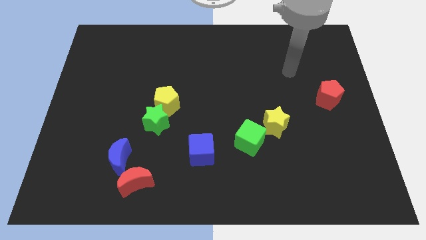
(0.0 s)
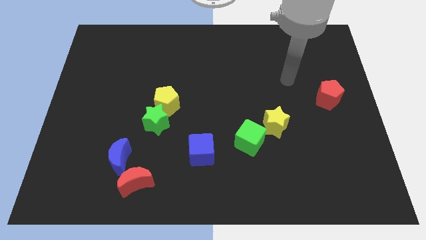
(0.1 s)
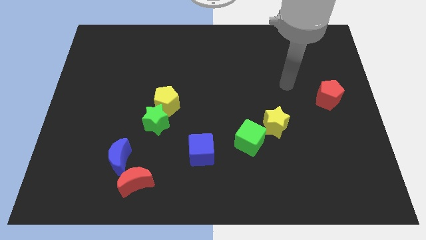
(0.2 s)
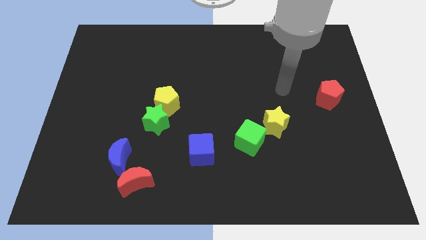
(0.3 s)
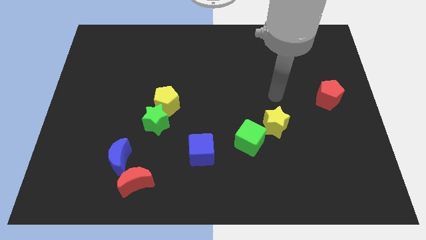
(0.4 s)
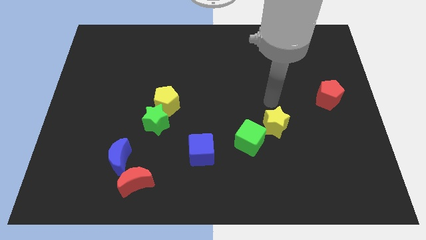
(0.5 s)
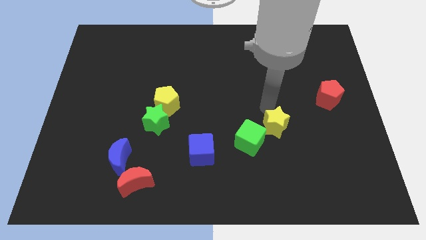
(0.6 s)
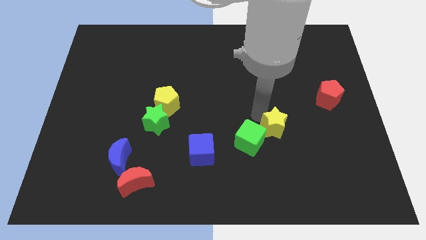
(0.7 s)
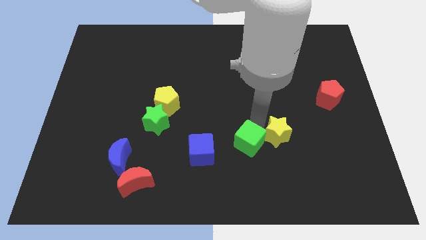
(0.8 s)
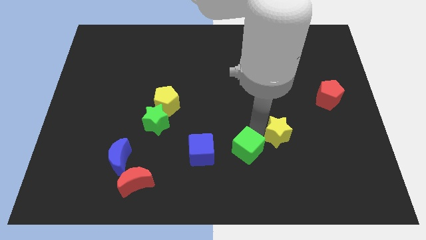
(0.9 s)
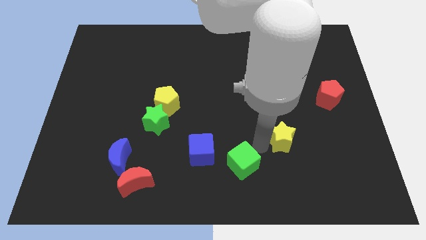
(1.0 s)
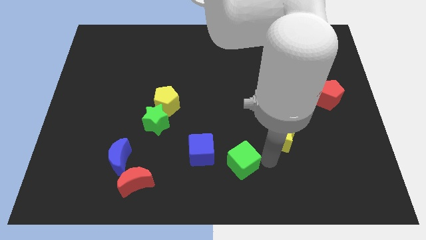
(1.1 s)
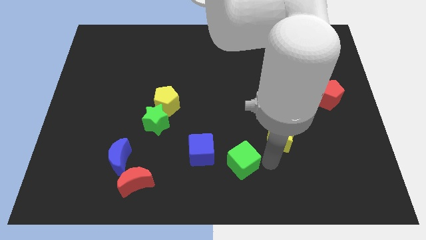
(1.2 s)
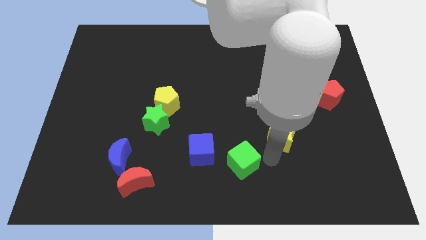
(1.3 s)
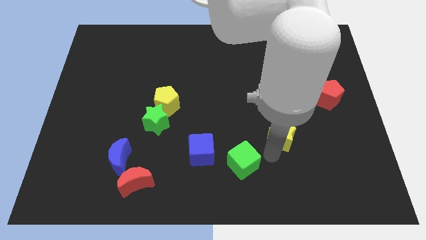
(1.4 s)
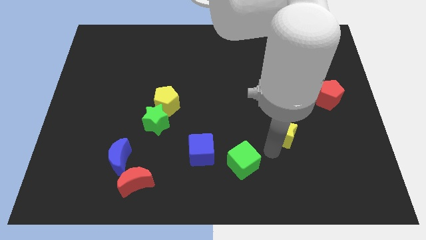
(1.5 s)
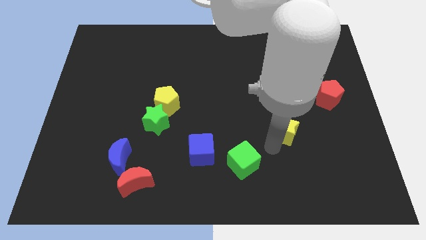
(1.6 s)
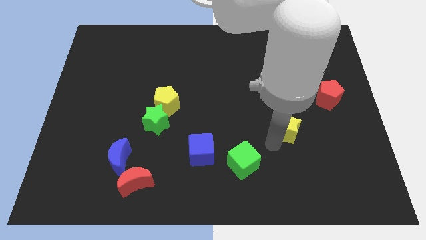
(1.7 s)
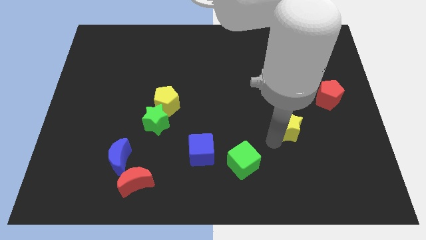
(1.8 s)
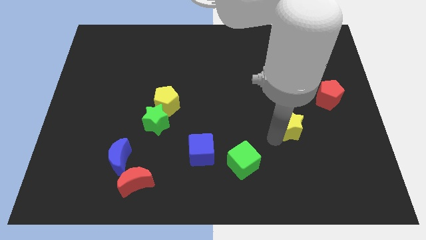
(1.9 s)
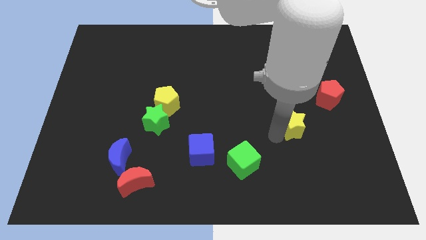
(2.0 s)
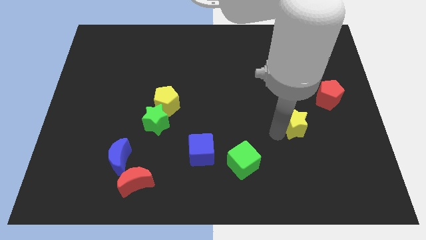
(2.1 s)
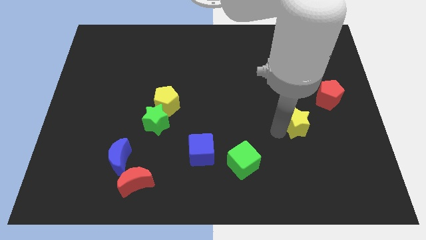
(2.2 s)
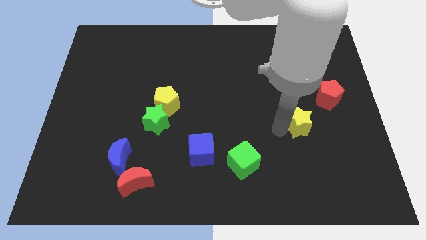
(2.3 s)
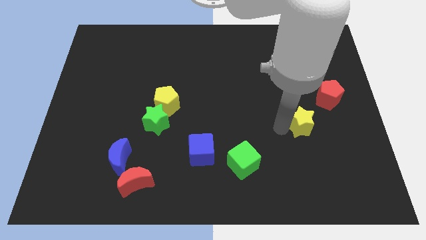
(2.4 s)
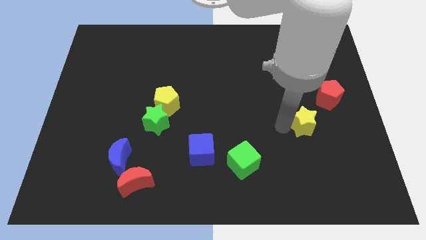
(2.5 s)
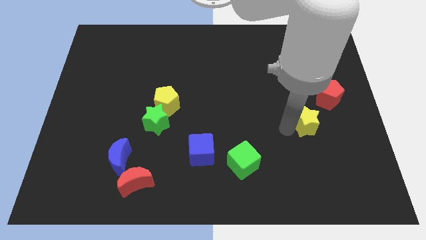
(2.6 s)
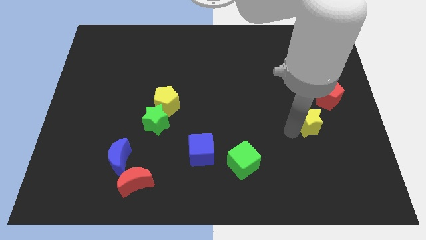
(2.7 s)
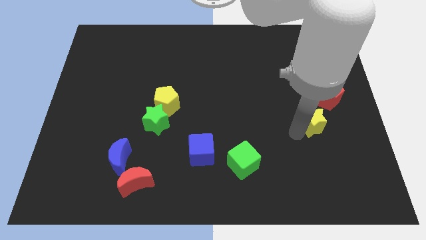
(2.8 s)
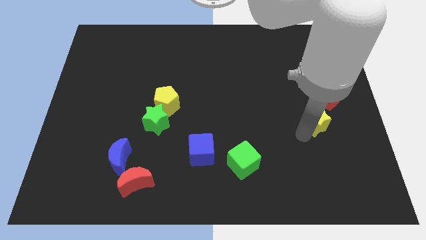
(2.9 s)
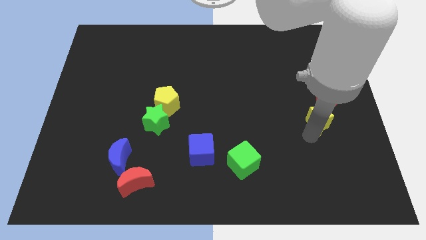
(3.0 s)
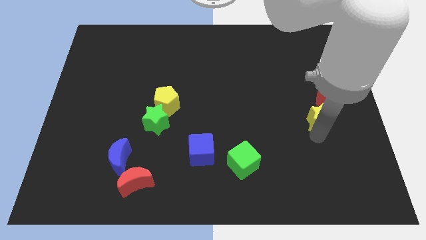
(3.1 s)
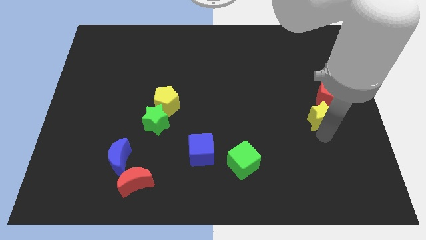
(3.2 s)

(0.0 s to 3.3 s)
slide the yellow star somewhat up and then right

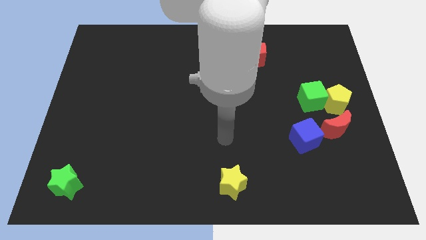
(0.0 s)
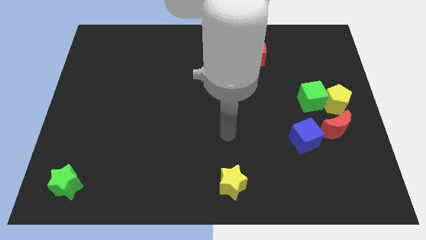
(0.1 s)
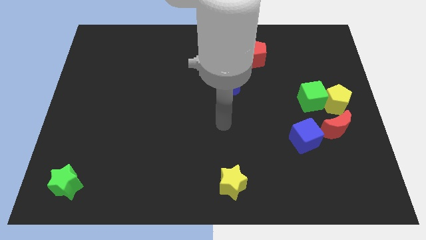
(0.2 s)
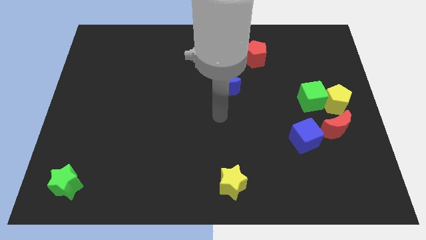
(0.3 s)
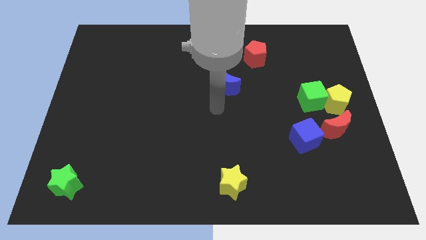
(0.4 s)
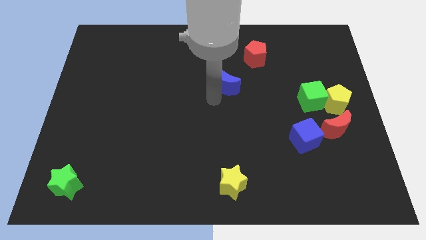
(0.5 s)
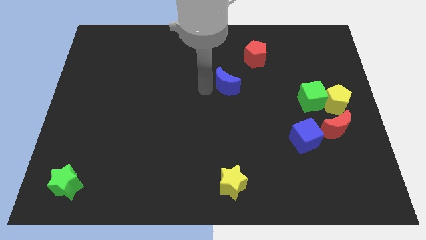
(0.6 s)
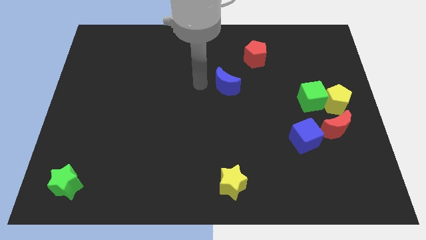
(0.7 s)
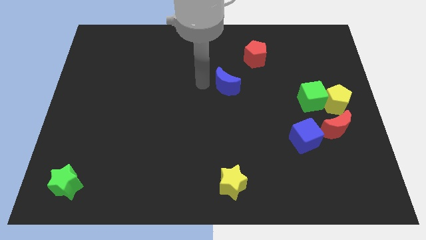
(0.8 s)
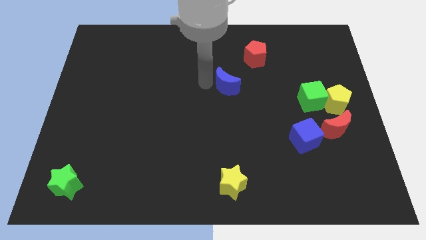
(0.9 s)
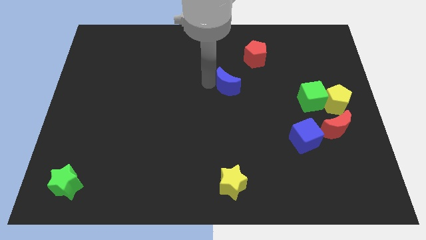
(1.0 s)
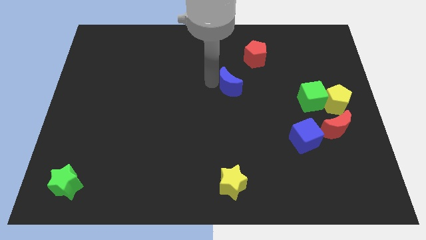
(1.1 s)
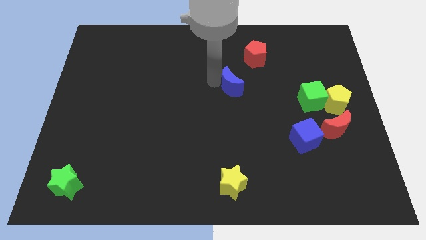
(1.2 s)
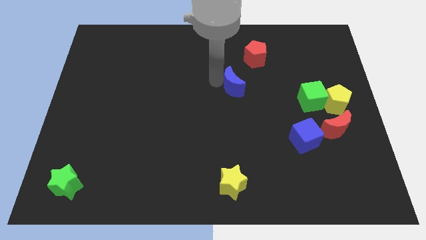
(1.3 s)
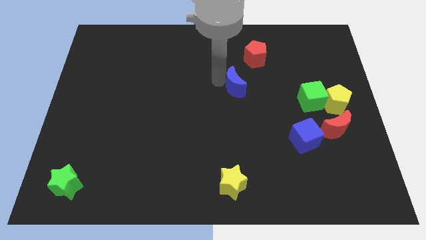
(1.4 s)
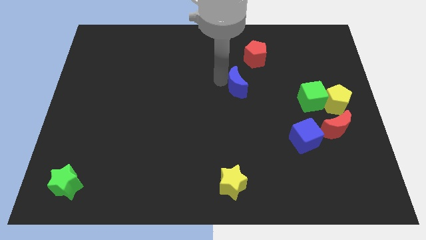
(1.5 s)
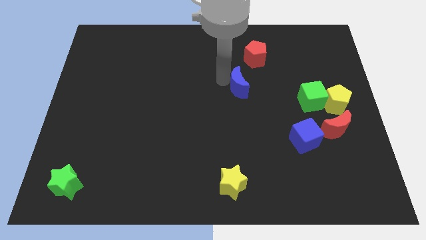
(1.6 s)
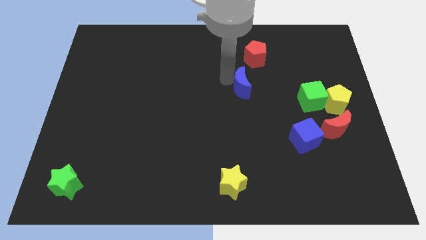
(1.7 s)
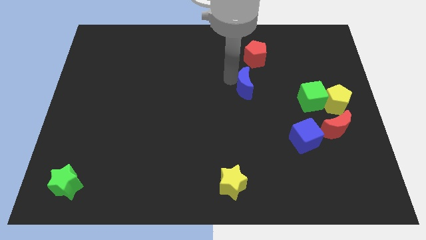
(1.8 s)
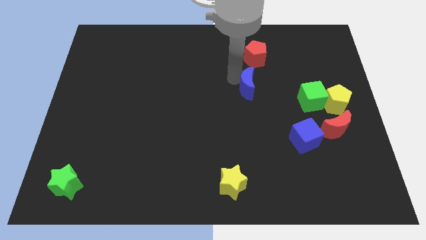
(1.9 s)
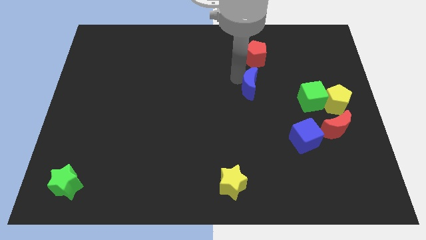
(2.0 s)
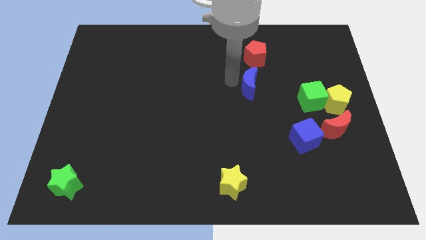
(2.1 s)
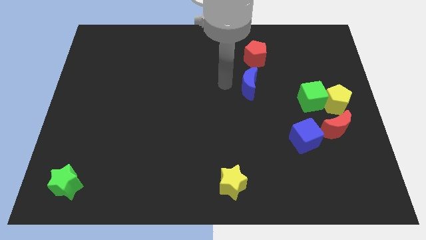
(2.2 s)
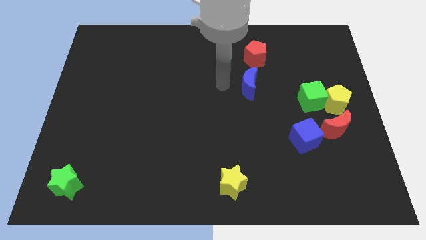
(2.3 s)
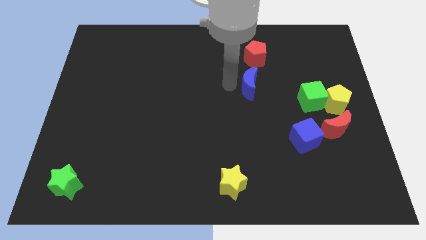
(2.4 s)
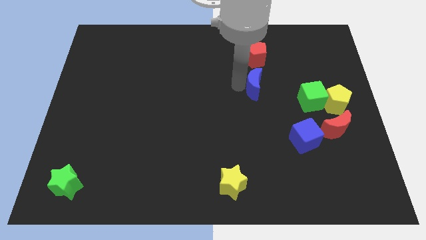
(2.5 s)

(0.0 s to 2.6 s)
slide the blue moon a little to the right

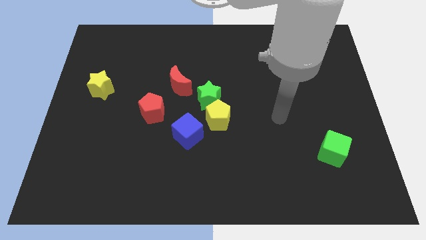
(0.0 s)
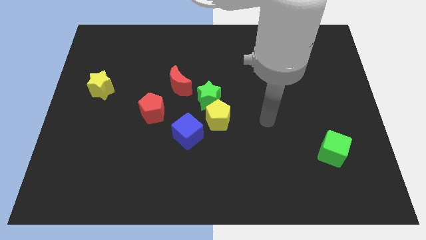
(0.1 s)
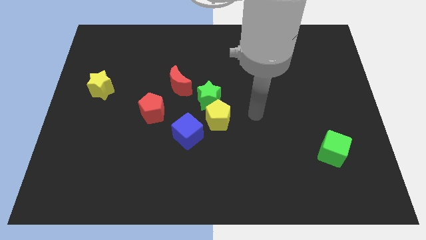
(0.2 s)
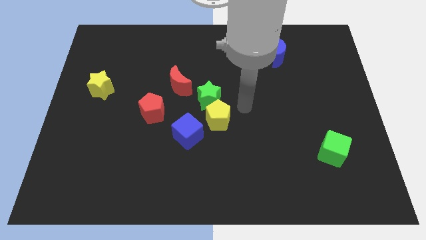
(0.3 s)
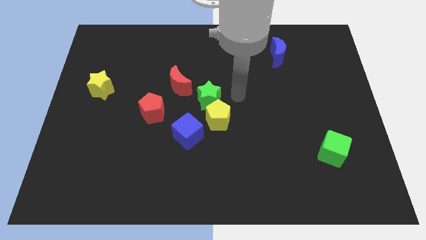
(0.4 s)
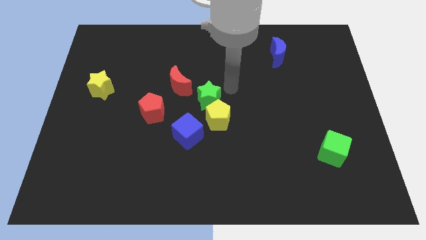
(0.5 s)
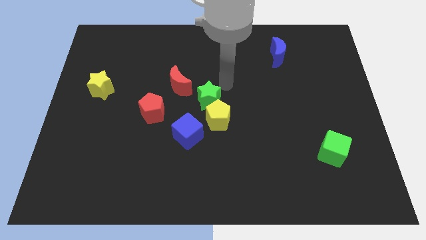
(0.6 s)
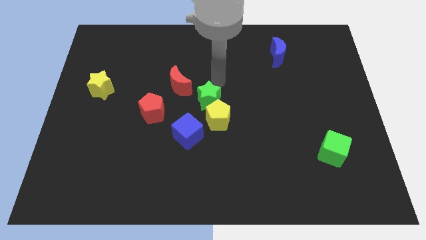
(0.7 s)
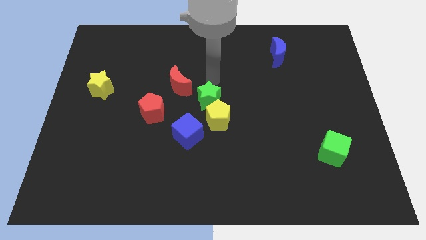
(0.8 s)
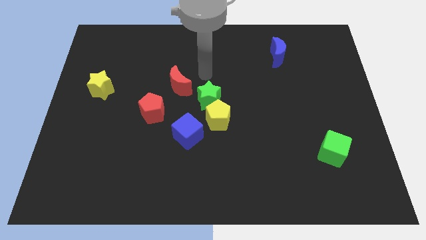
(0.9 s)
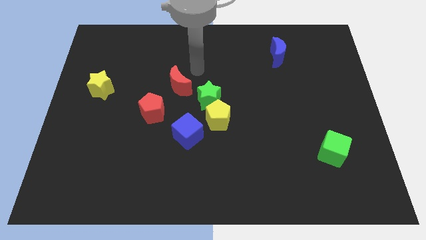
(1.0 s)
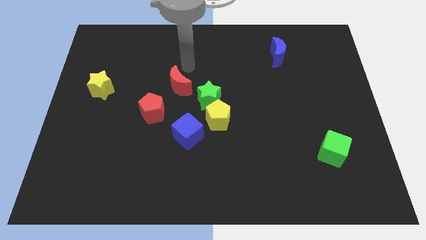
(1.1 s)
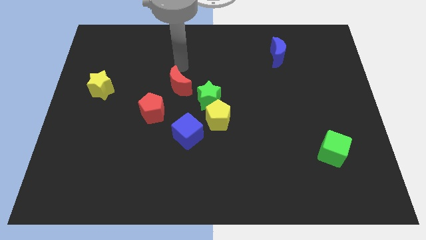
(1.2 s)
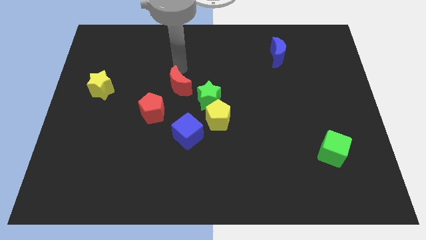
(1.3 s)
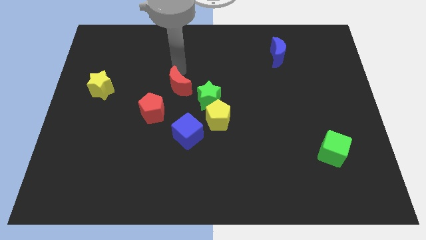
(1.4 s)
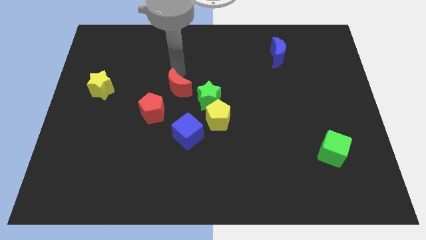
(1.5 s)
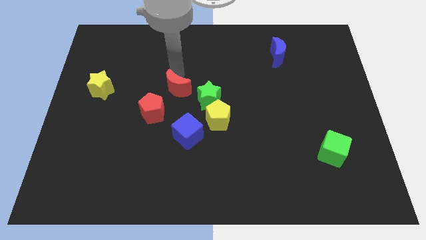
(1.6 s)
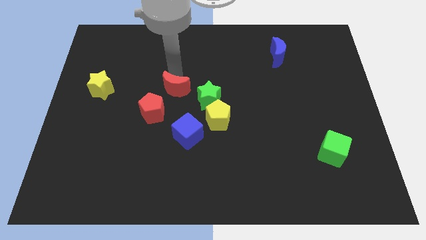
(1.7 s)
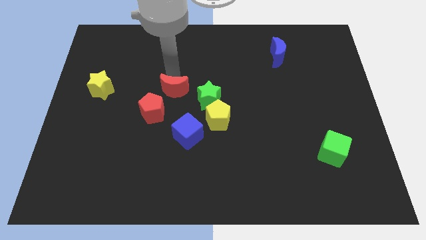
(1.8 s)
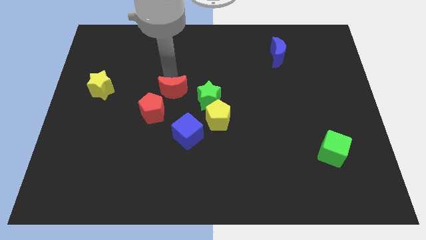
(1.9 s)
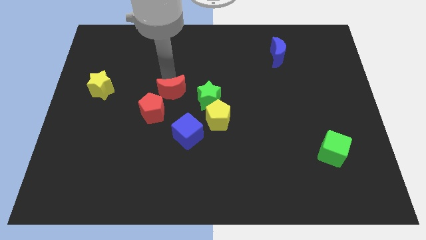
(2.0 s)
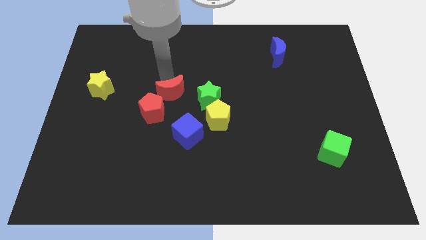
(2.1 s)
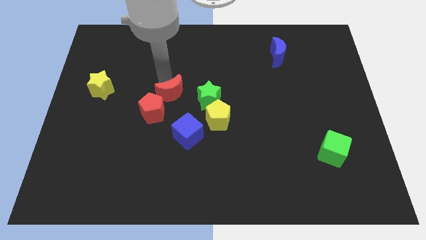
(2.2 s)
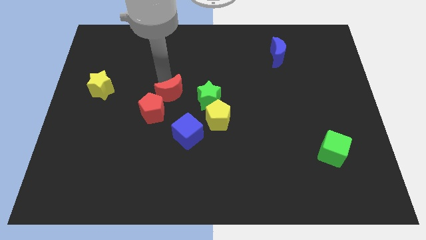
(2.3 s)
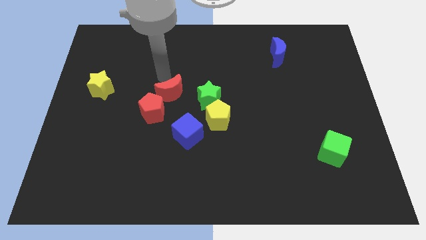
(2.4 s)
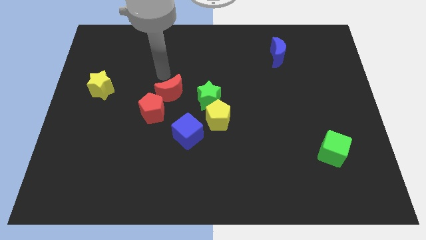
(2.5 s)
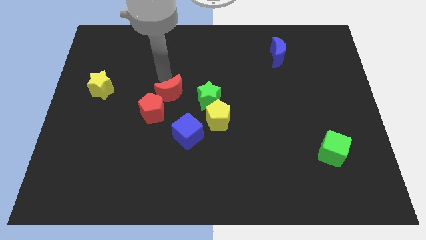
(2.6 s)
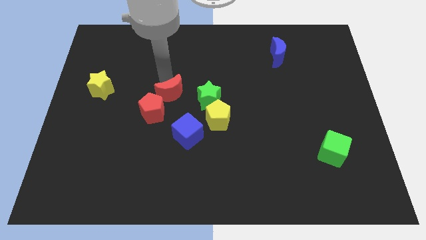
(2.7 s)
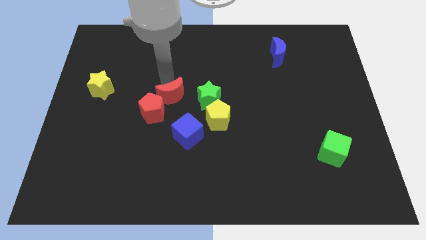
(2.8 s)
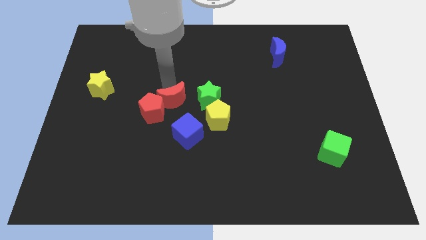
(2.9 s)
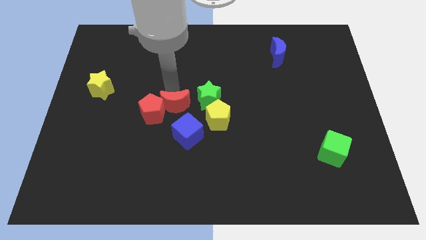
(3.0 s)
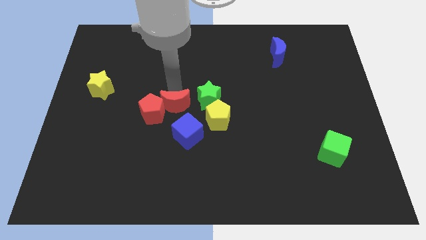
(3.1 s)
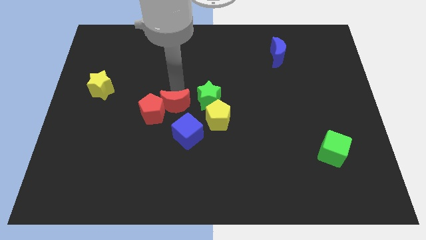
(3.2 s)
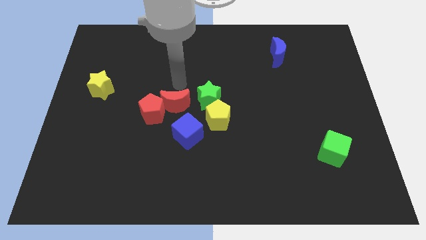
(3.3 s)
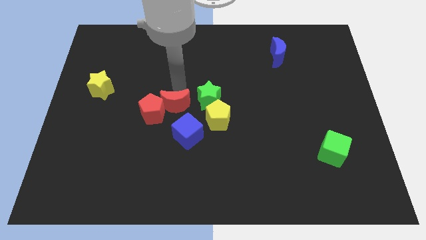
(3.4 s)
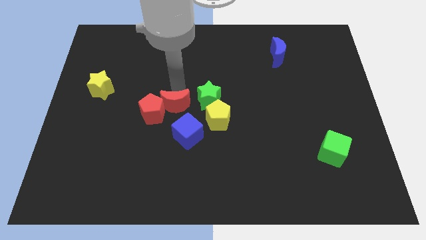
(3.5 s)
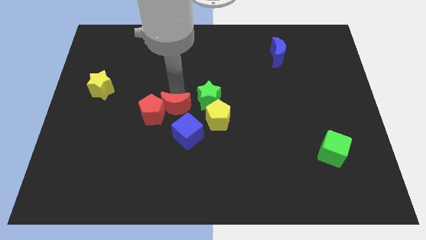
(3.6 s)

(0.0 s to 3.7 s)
push the red moon down a bit
